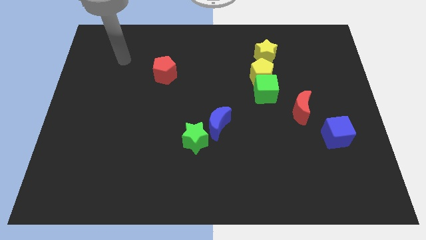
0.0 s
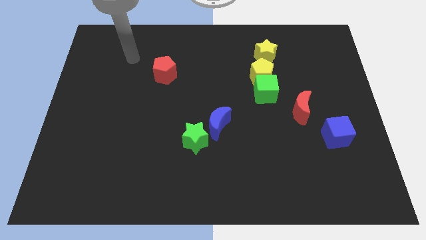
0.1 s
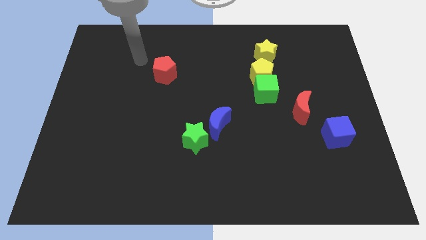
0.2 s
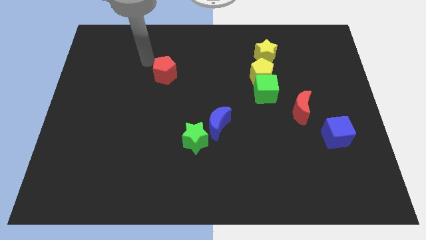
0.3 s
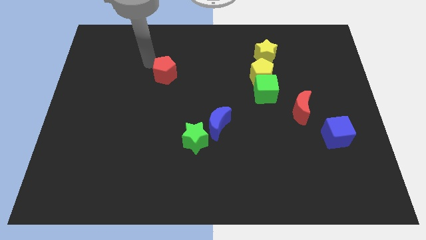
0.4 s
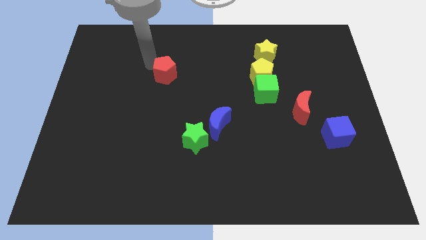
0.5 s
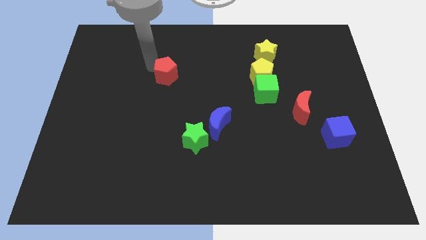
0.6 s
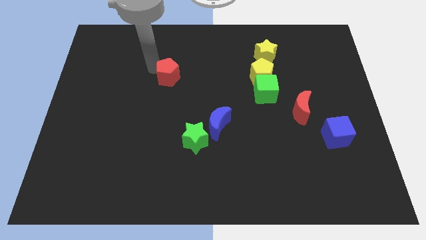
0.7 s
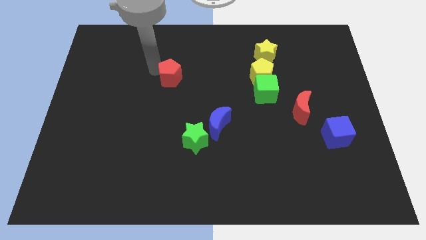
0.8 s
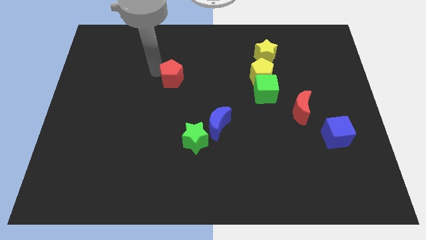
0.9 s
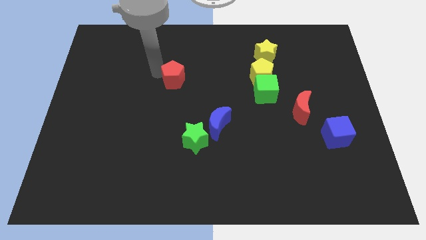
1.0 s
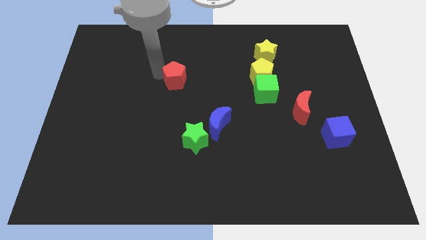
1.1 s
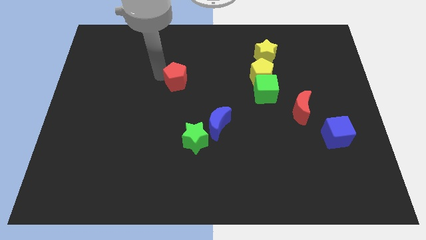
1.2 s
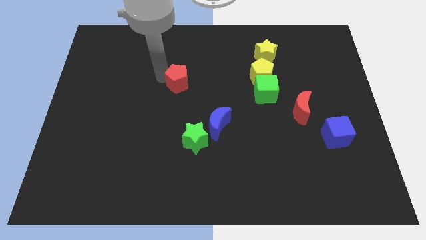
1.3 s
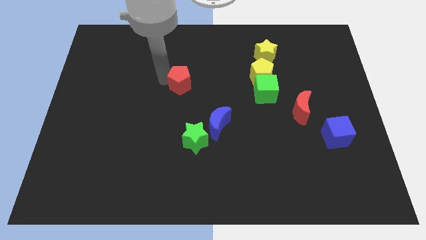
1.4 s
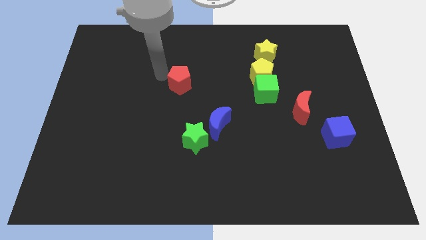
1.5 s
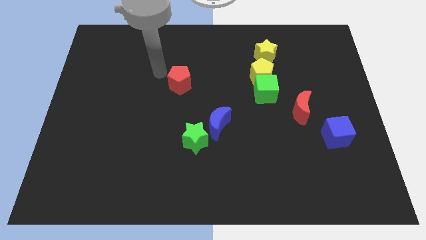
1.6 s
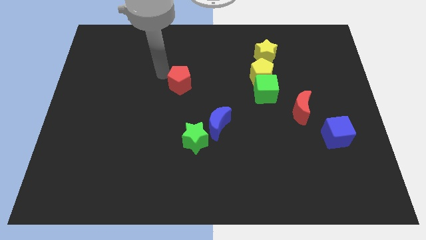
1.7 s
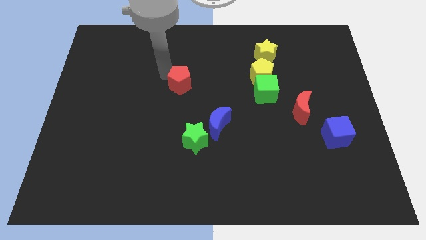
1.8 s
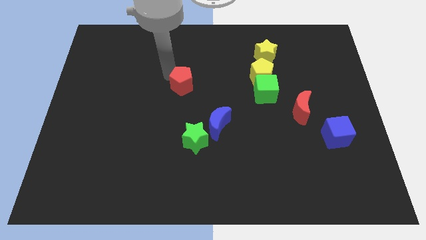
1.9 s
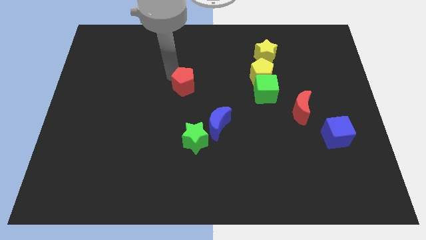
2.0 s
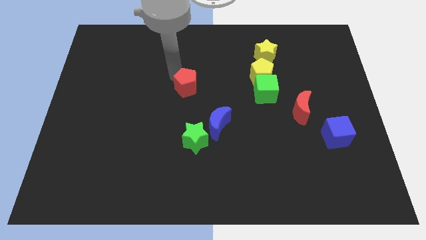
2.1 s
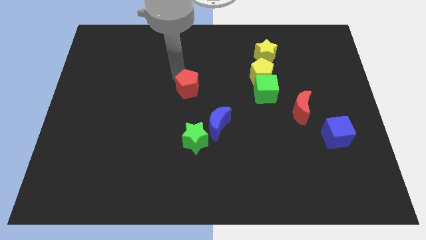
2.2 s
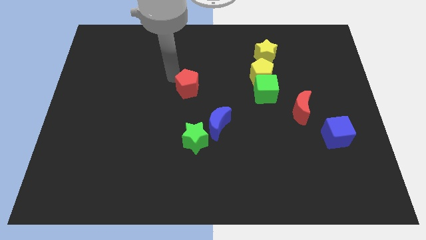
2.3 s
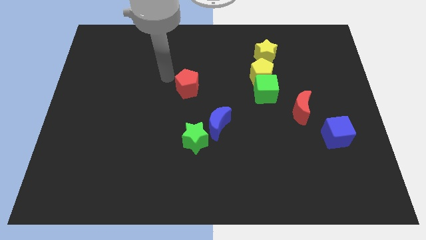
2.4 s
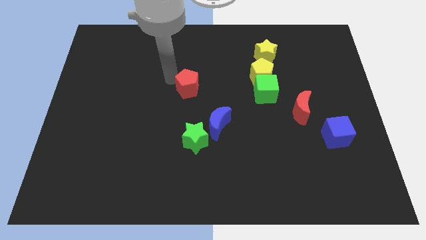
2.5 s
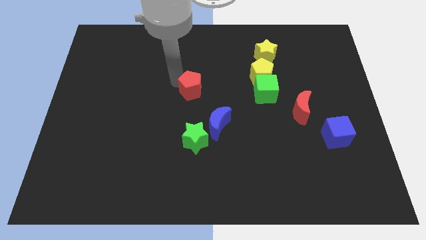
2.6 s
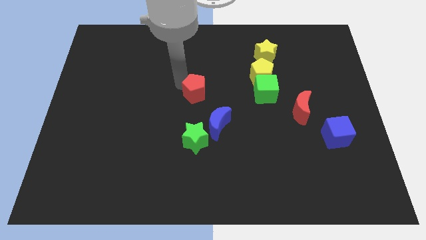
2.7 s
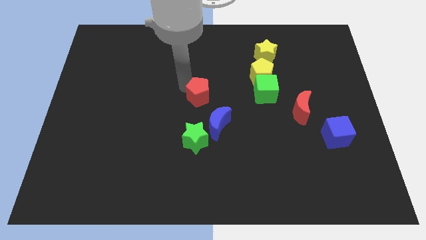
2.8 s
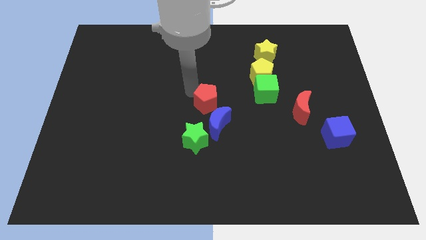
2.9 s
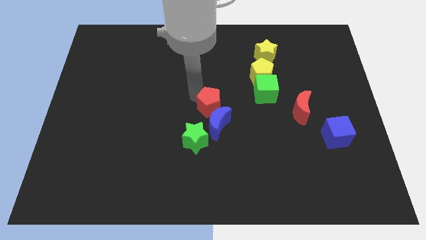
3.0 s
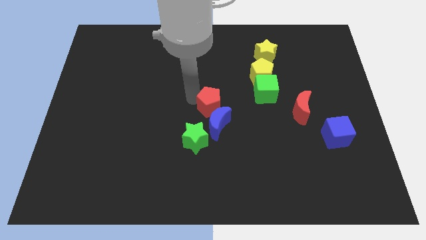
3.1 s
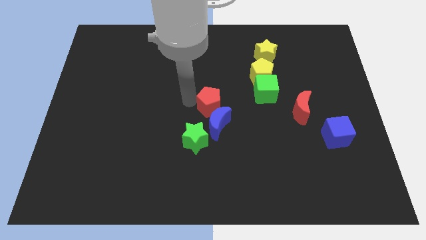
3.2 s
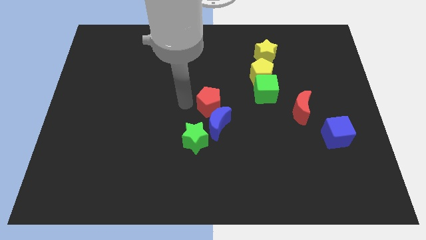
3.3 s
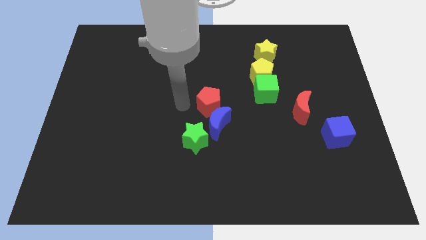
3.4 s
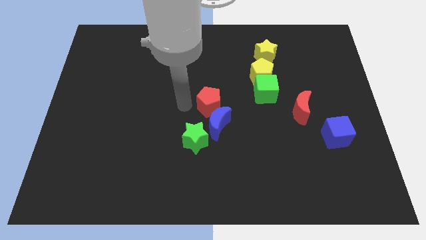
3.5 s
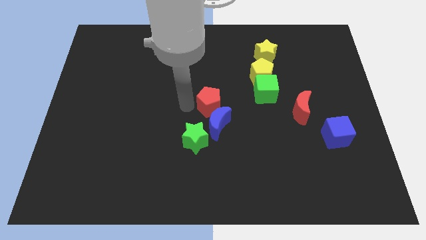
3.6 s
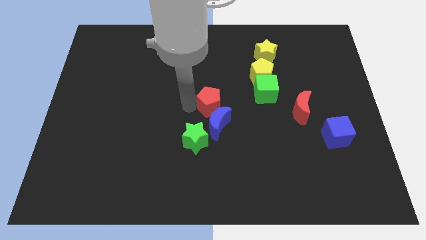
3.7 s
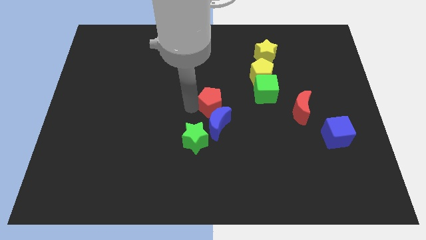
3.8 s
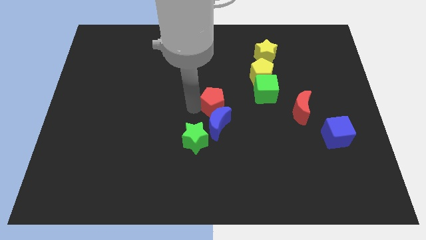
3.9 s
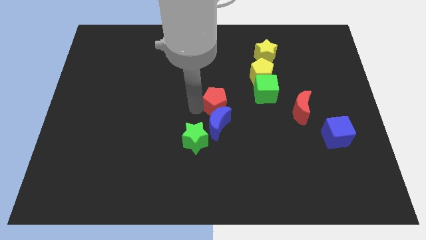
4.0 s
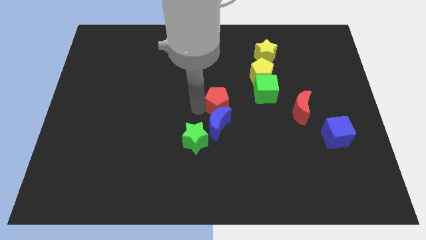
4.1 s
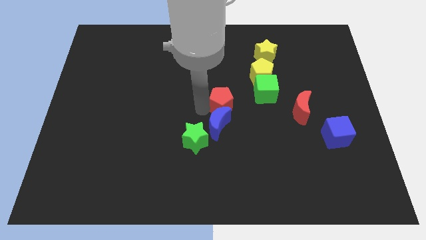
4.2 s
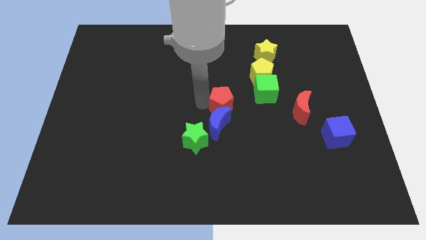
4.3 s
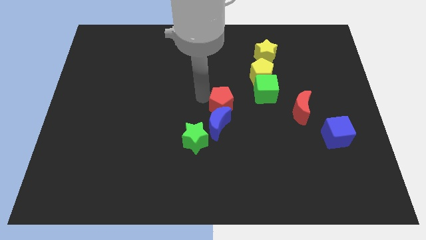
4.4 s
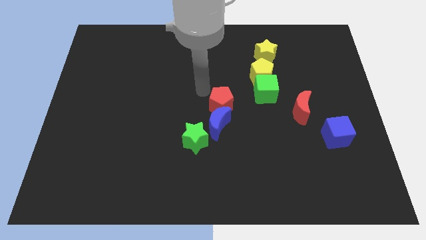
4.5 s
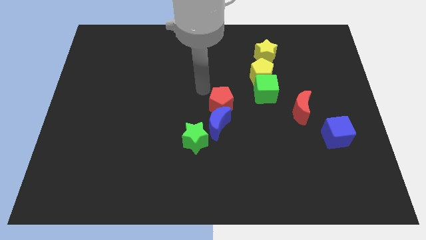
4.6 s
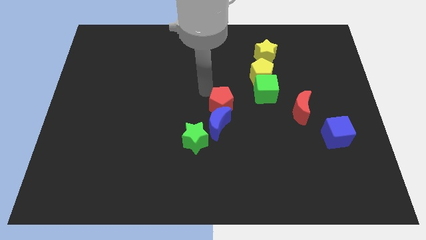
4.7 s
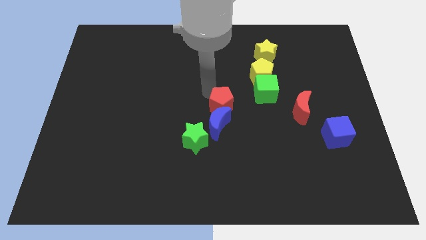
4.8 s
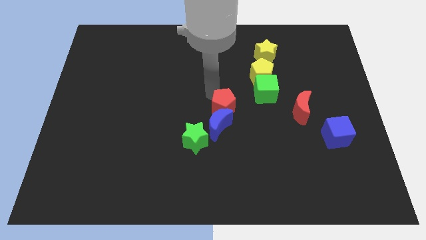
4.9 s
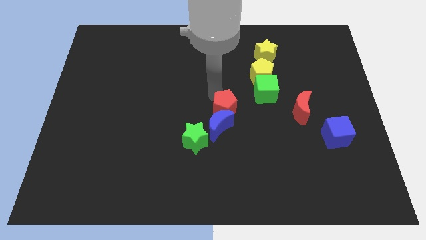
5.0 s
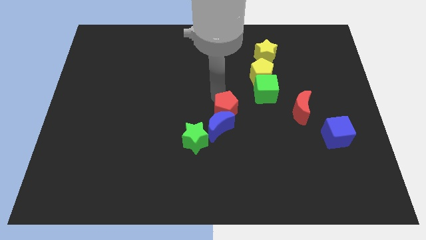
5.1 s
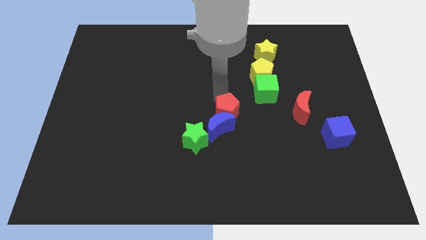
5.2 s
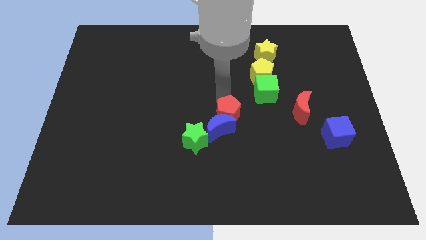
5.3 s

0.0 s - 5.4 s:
push the red pentagon down and right

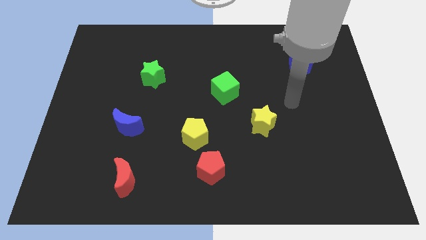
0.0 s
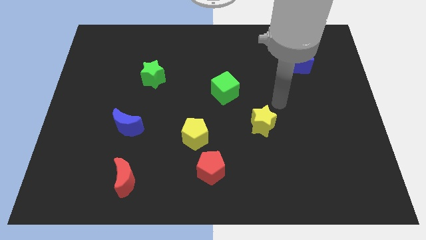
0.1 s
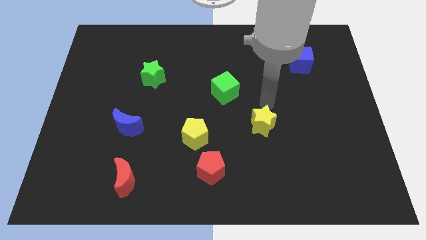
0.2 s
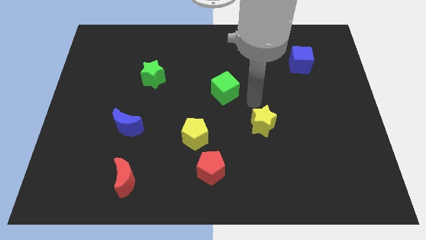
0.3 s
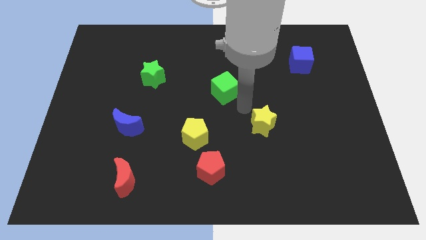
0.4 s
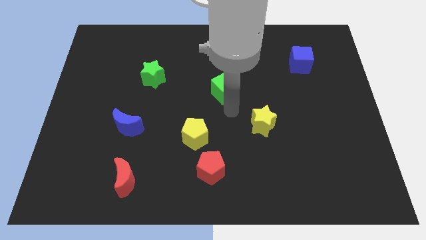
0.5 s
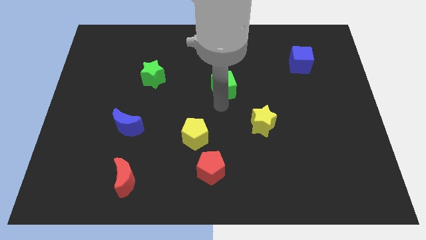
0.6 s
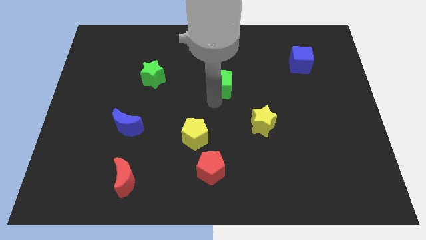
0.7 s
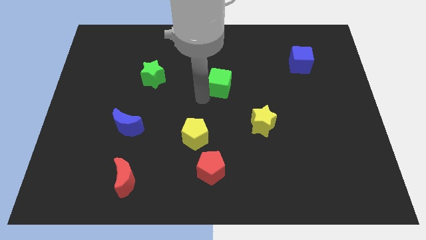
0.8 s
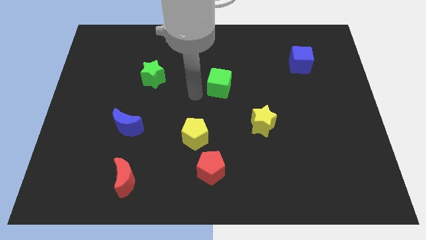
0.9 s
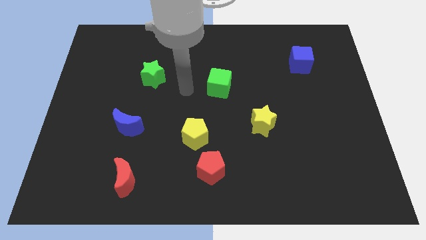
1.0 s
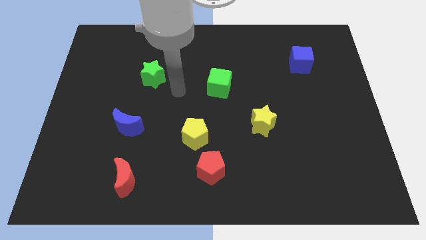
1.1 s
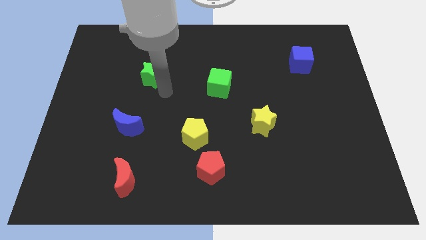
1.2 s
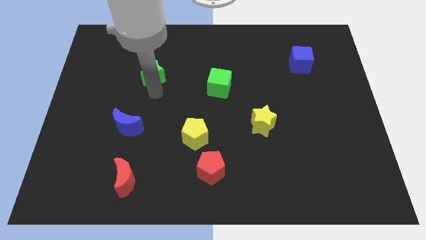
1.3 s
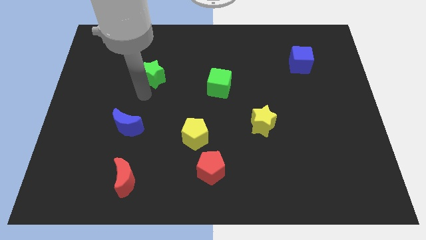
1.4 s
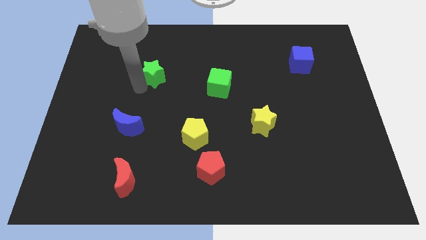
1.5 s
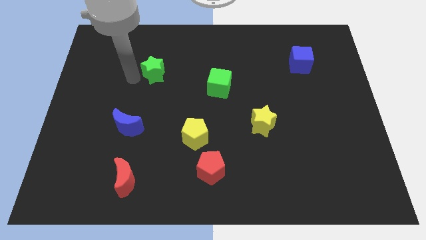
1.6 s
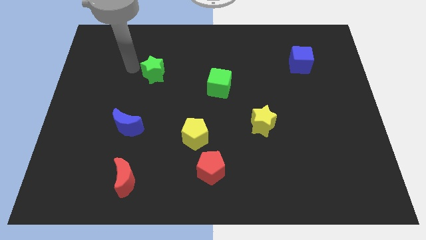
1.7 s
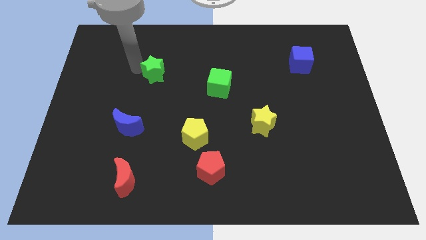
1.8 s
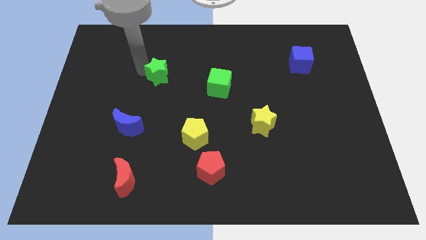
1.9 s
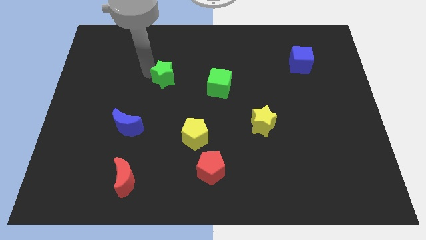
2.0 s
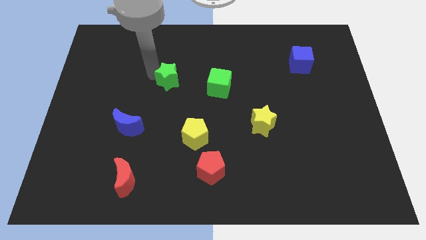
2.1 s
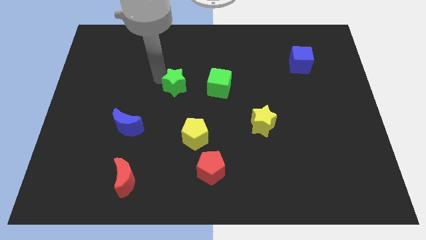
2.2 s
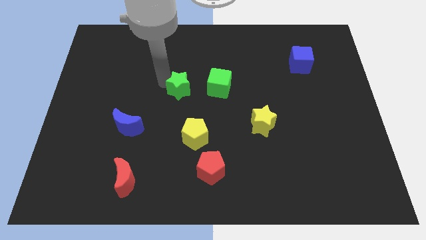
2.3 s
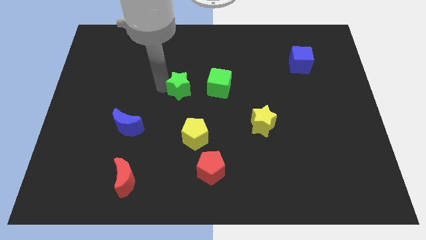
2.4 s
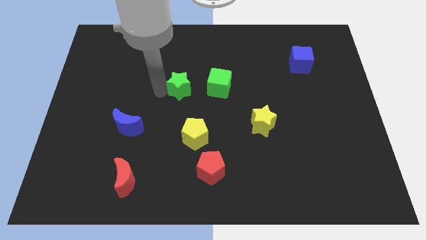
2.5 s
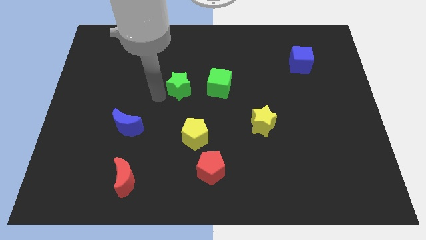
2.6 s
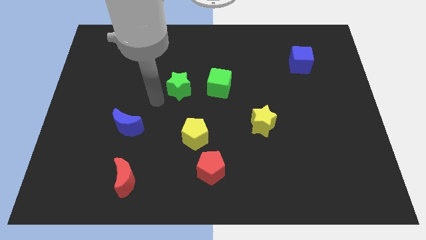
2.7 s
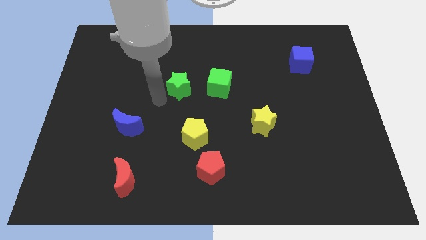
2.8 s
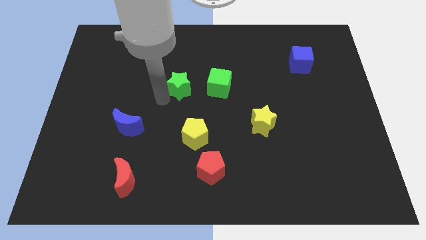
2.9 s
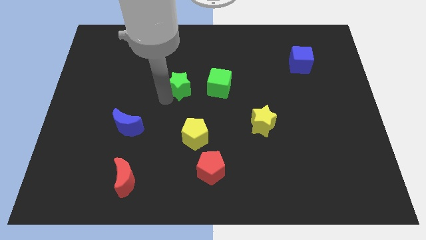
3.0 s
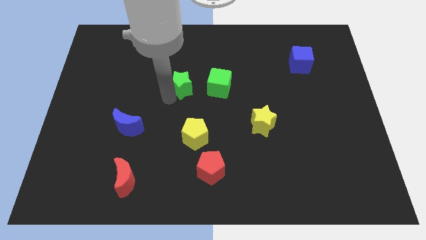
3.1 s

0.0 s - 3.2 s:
push the green star a little right
